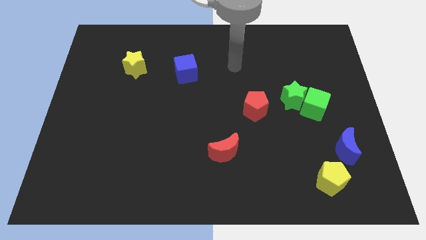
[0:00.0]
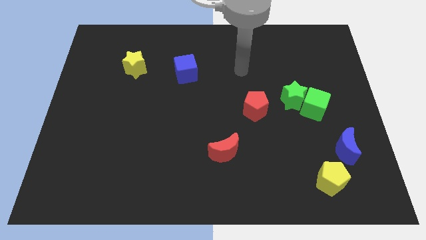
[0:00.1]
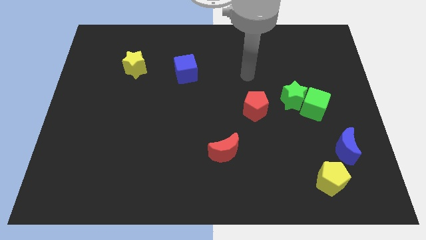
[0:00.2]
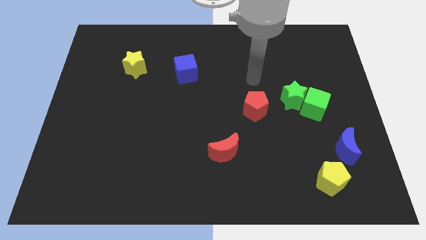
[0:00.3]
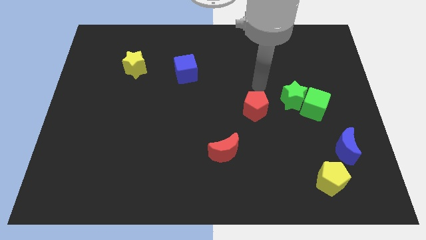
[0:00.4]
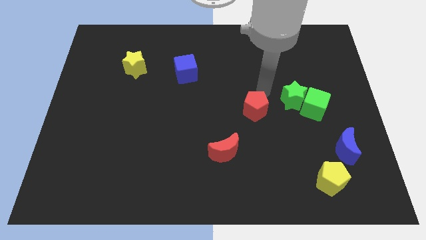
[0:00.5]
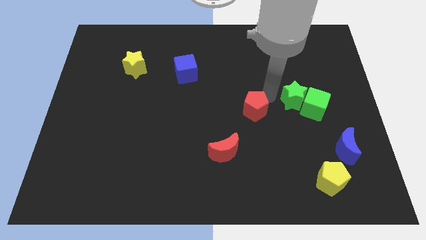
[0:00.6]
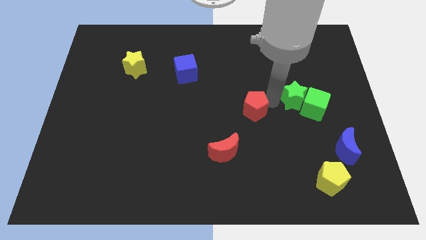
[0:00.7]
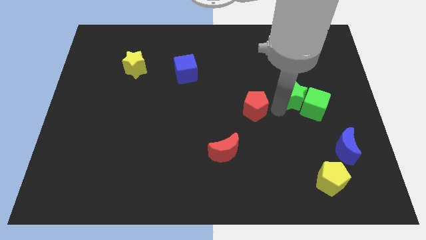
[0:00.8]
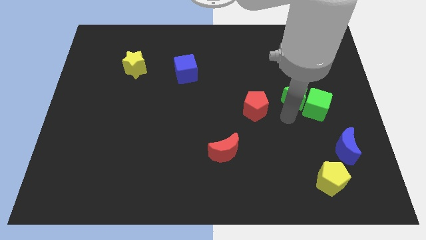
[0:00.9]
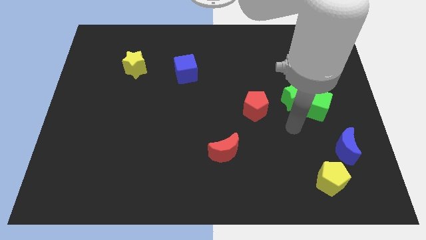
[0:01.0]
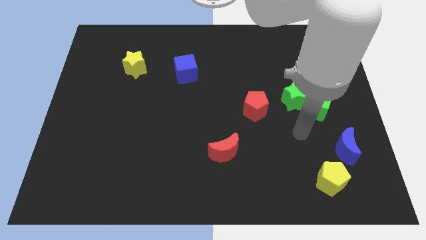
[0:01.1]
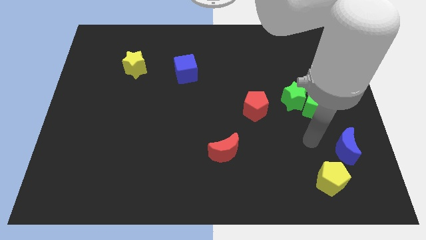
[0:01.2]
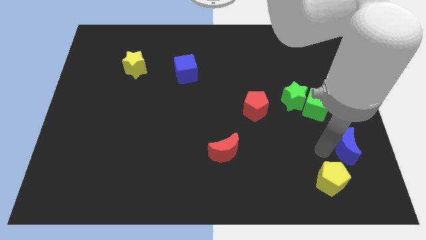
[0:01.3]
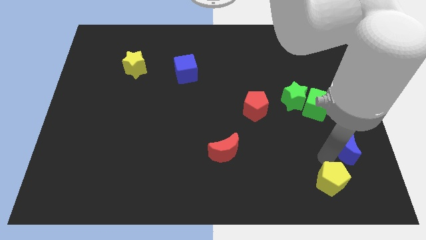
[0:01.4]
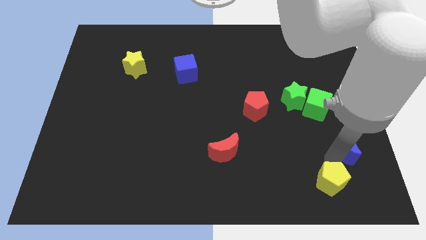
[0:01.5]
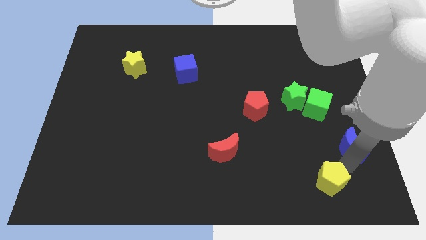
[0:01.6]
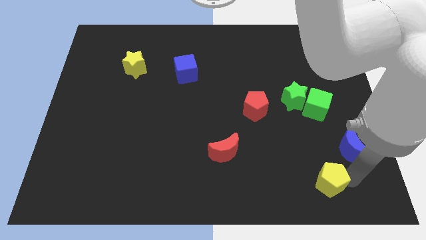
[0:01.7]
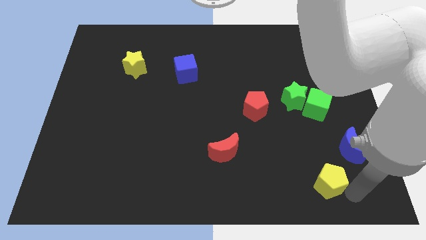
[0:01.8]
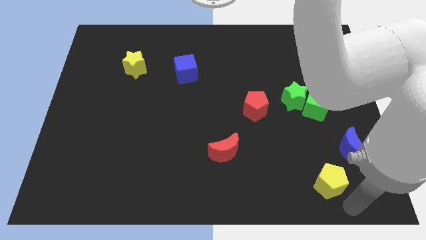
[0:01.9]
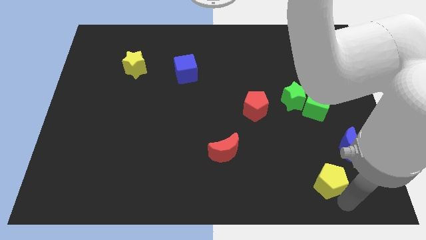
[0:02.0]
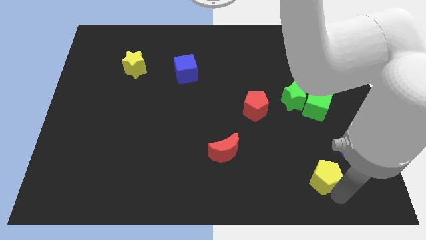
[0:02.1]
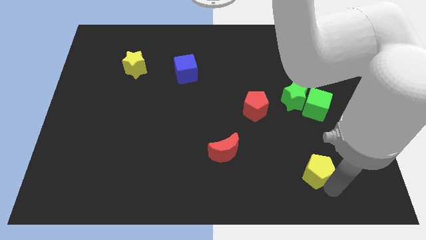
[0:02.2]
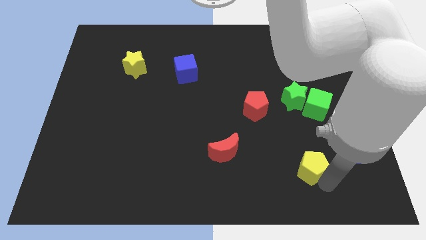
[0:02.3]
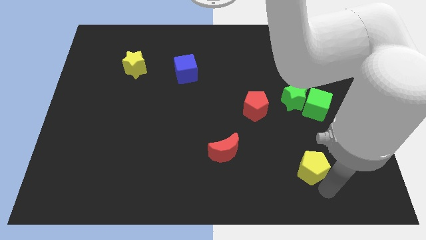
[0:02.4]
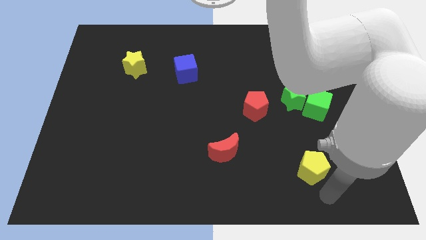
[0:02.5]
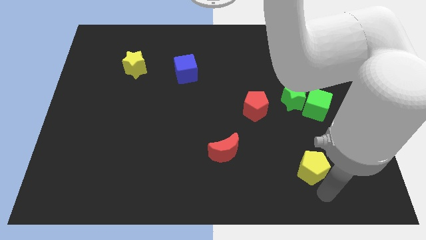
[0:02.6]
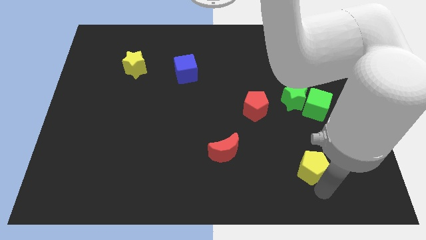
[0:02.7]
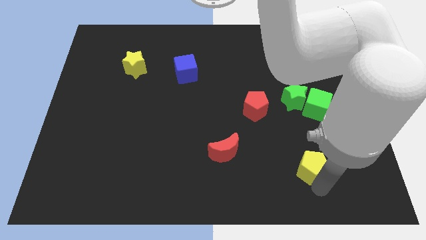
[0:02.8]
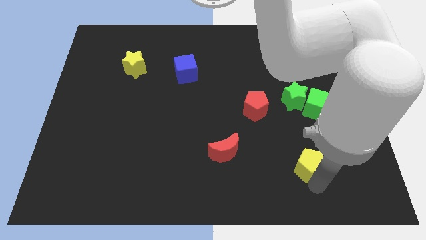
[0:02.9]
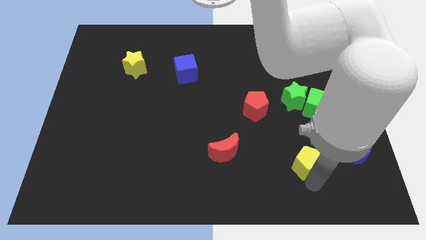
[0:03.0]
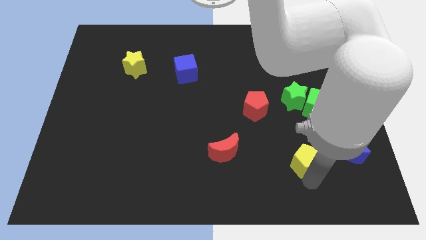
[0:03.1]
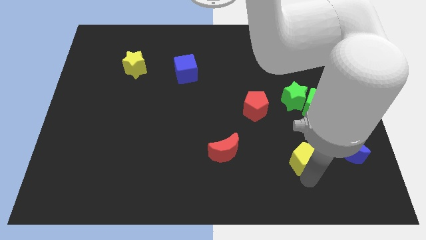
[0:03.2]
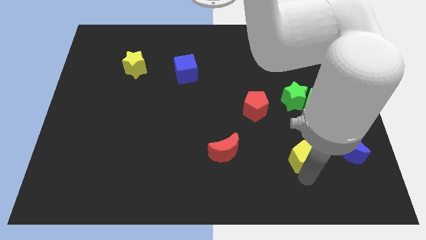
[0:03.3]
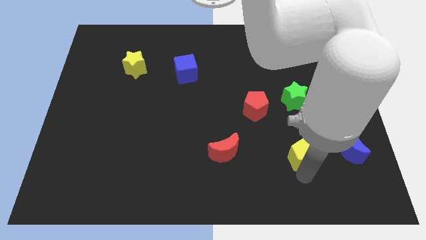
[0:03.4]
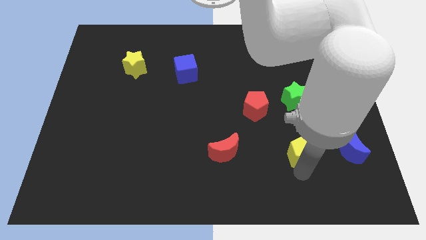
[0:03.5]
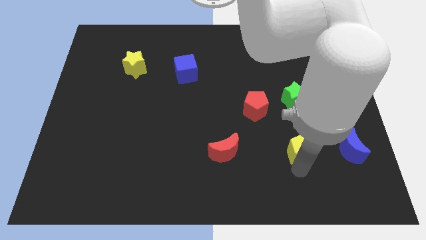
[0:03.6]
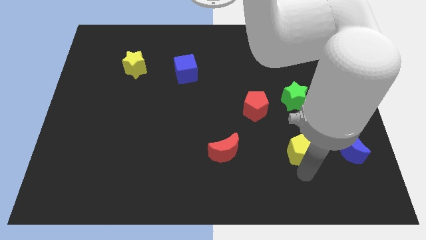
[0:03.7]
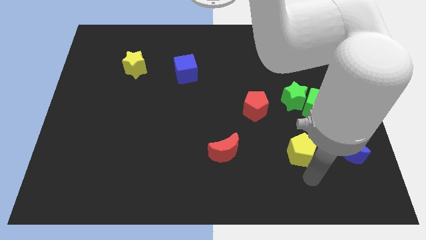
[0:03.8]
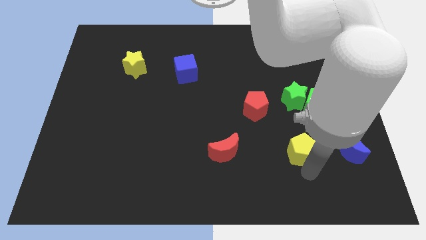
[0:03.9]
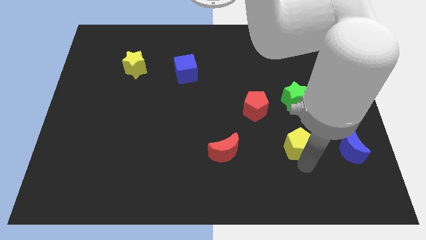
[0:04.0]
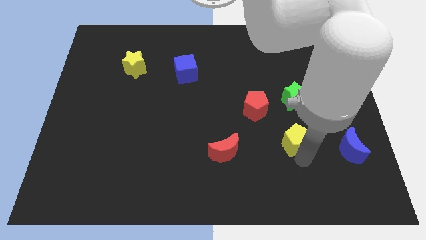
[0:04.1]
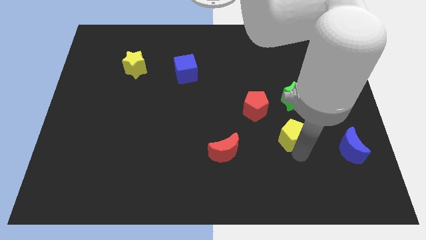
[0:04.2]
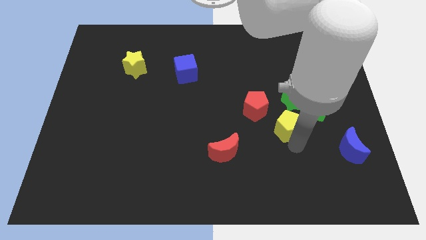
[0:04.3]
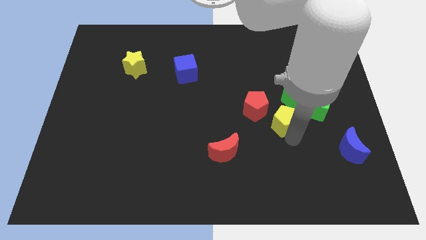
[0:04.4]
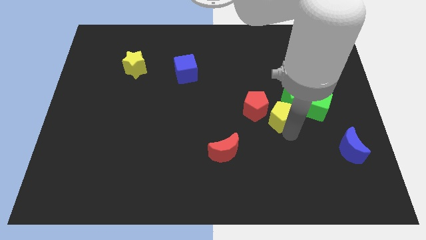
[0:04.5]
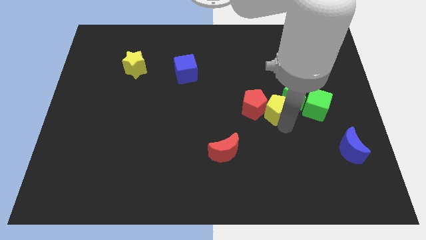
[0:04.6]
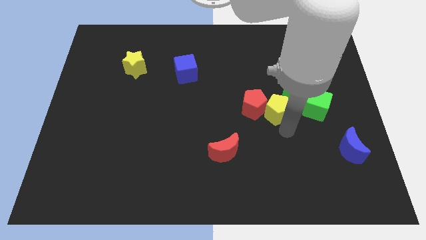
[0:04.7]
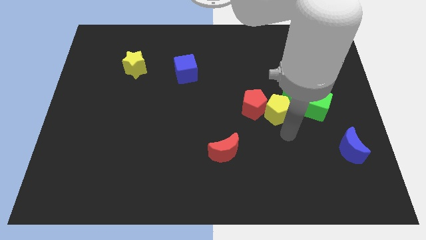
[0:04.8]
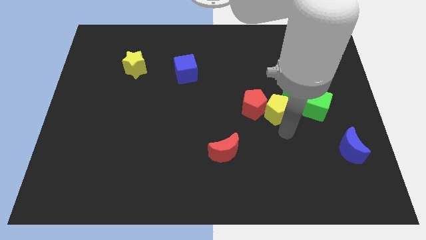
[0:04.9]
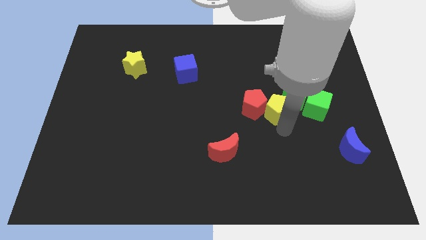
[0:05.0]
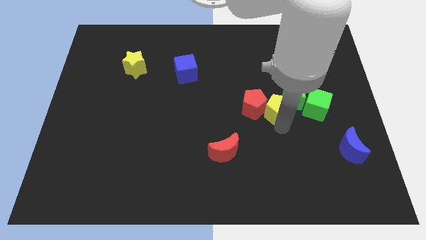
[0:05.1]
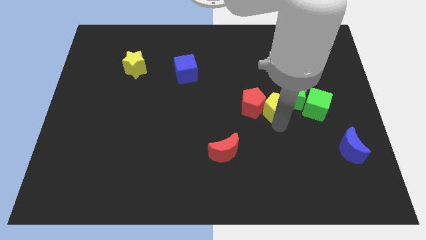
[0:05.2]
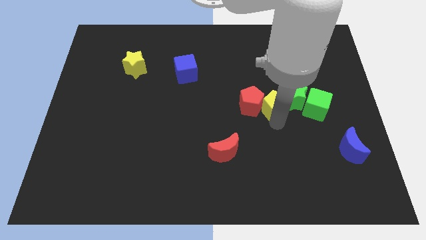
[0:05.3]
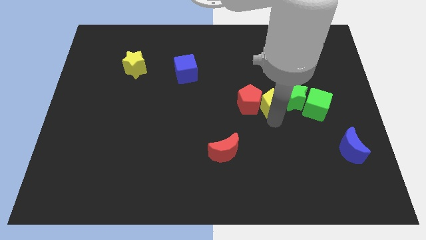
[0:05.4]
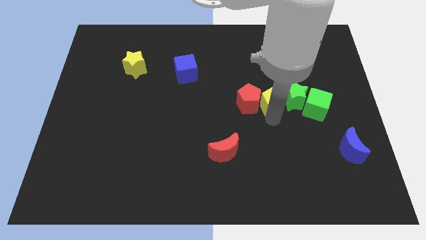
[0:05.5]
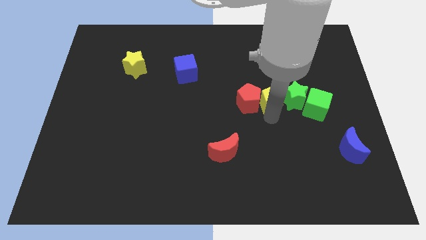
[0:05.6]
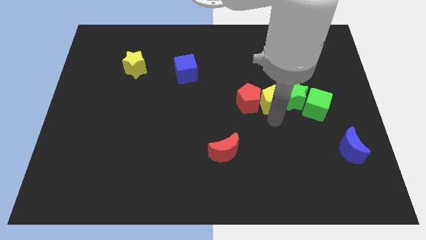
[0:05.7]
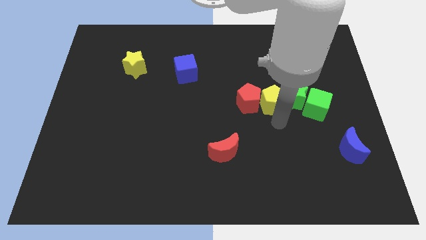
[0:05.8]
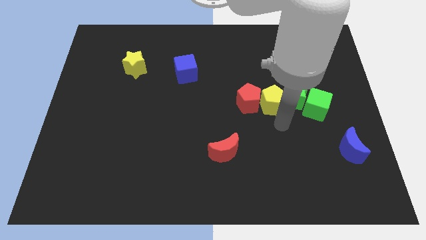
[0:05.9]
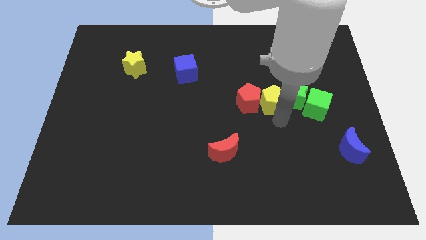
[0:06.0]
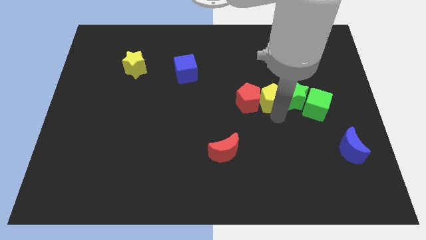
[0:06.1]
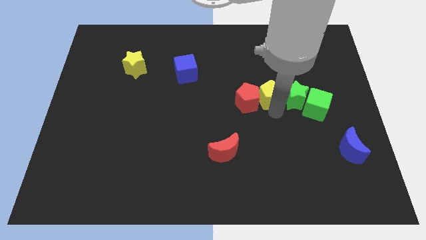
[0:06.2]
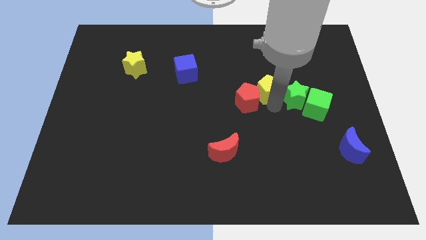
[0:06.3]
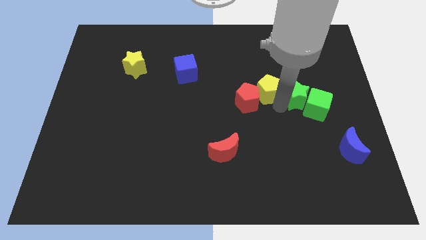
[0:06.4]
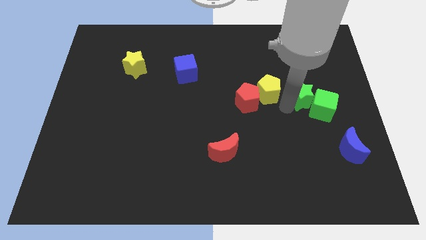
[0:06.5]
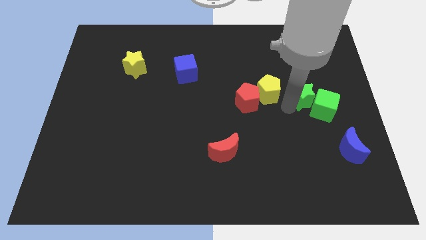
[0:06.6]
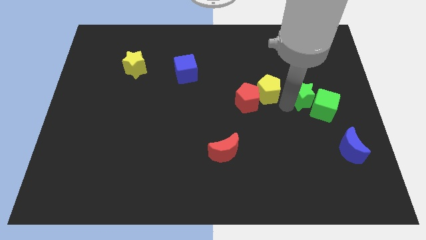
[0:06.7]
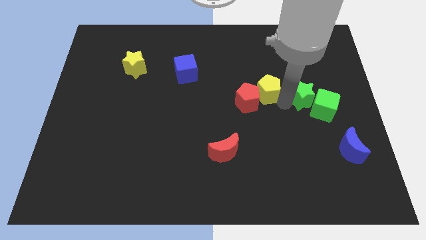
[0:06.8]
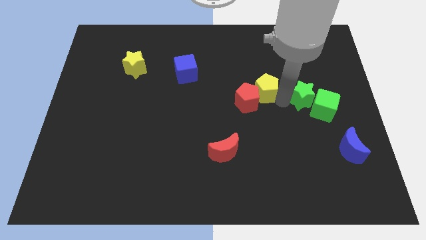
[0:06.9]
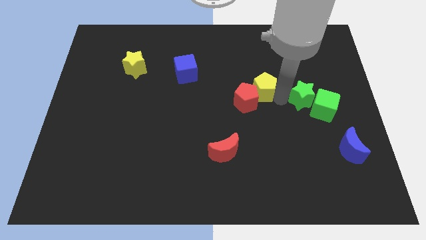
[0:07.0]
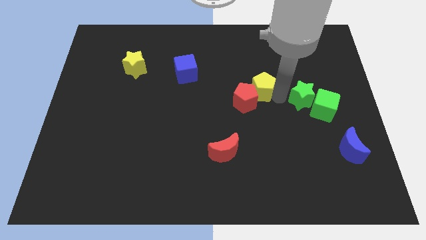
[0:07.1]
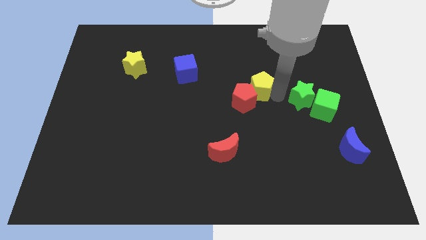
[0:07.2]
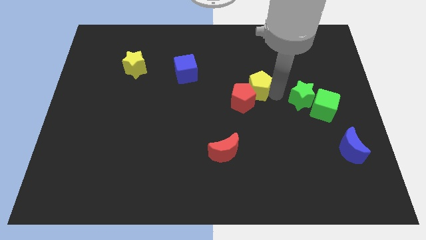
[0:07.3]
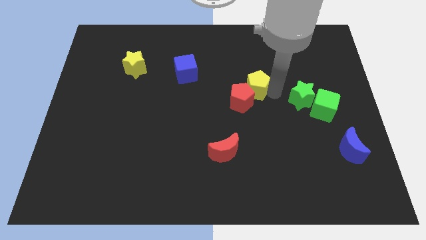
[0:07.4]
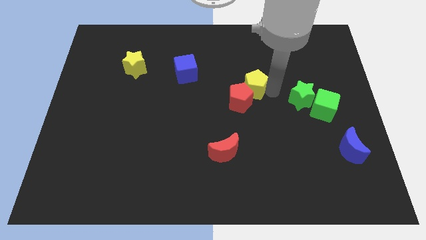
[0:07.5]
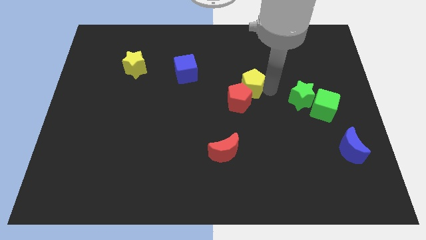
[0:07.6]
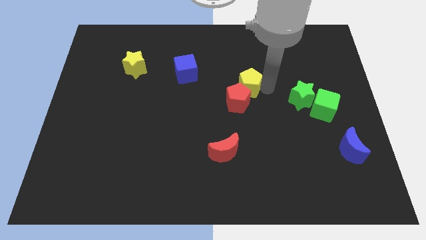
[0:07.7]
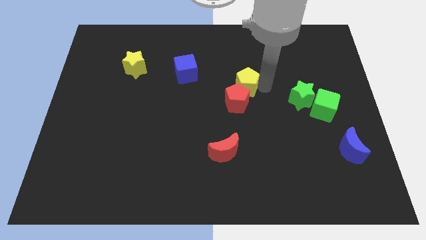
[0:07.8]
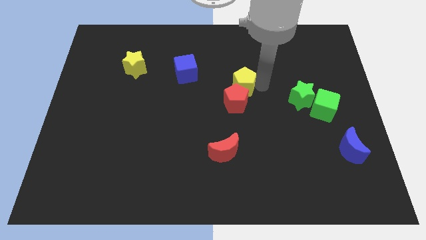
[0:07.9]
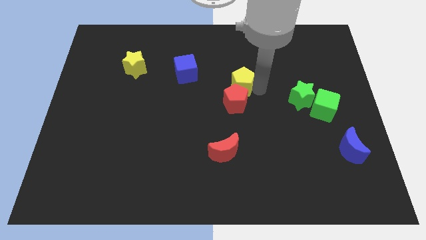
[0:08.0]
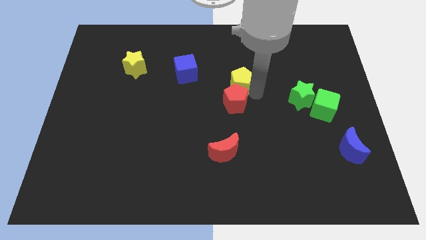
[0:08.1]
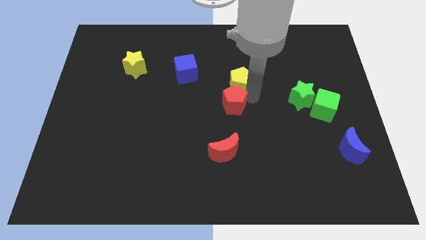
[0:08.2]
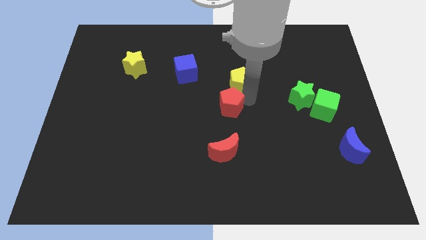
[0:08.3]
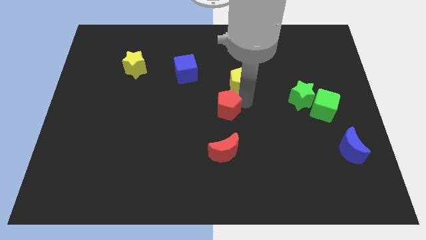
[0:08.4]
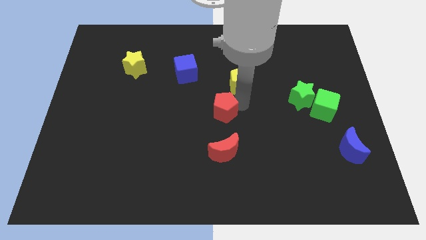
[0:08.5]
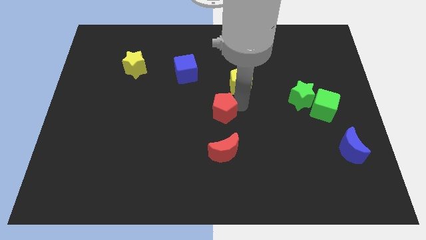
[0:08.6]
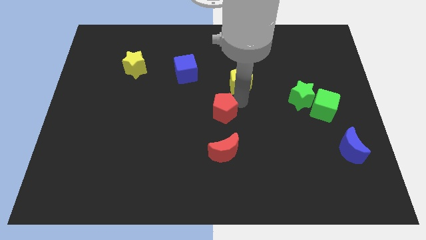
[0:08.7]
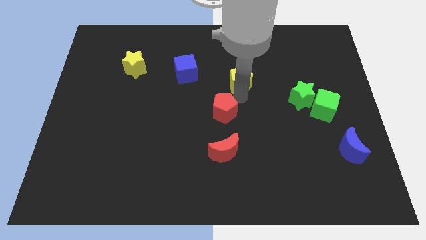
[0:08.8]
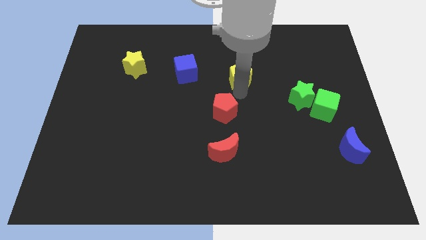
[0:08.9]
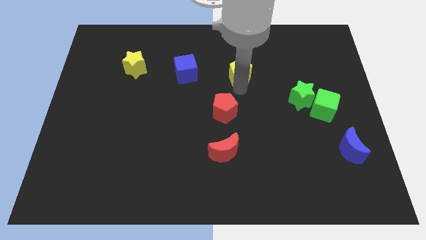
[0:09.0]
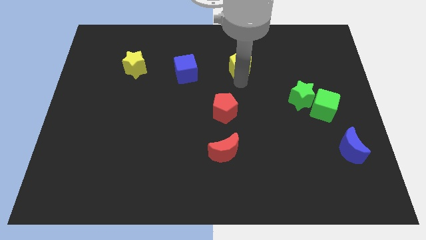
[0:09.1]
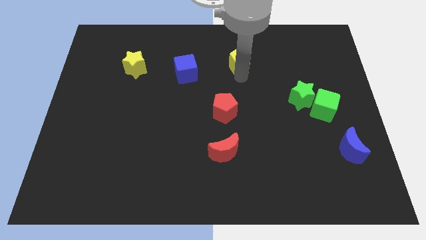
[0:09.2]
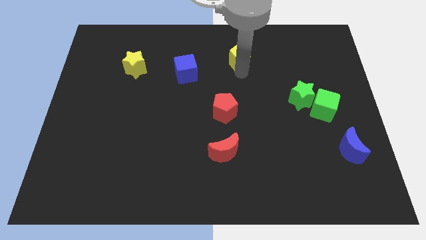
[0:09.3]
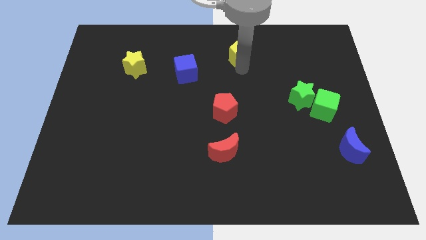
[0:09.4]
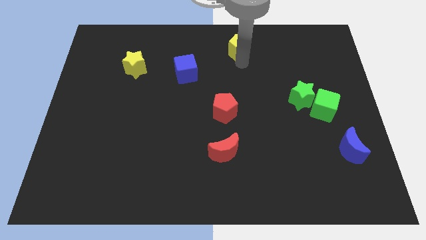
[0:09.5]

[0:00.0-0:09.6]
move the yellow pentagon to the towards your base
